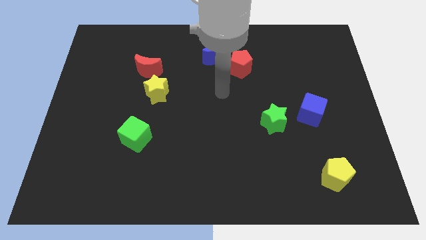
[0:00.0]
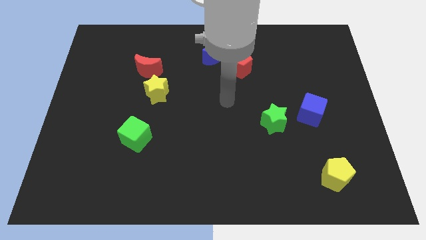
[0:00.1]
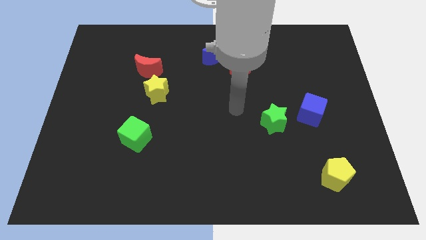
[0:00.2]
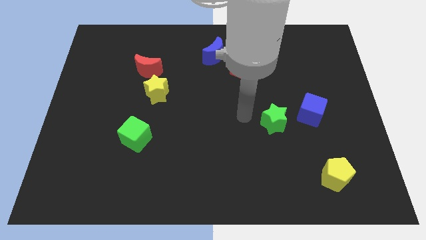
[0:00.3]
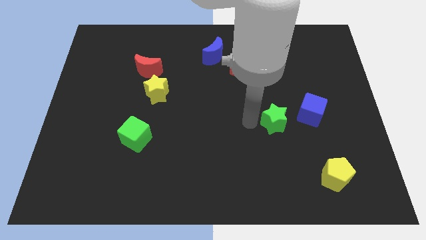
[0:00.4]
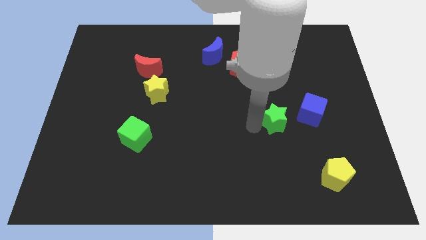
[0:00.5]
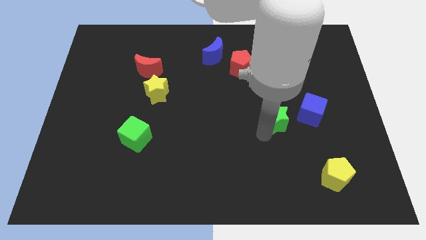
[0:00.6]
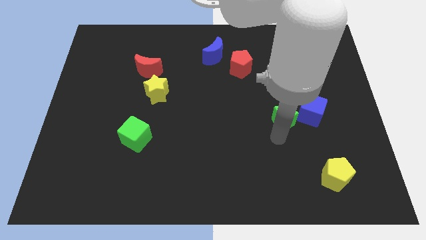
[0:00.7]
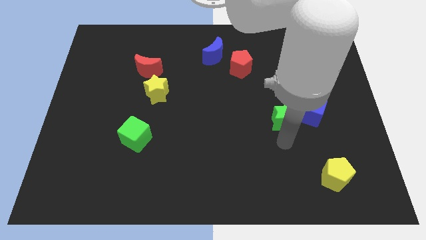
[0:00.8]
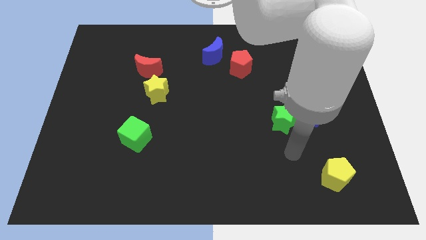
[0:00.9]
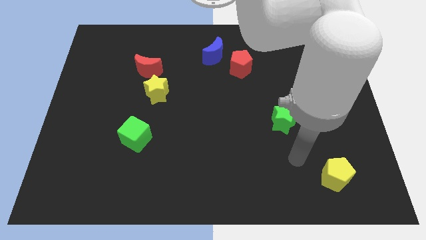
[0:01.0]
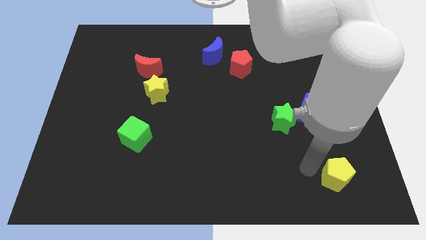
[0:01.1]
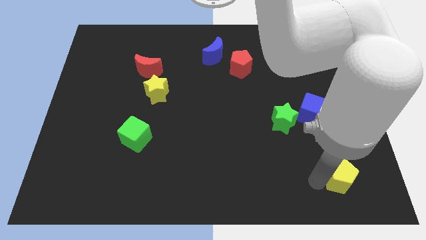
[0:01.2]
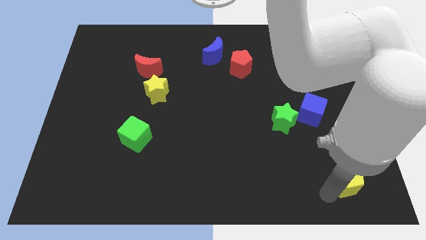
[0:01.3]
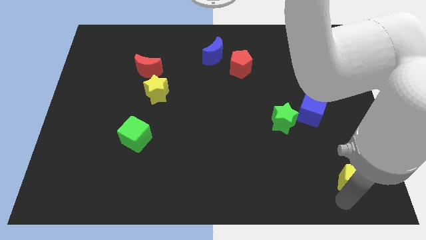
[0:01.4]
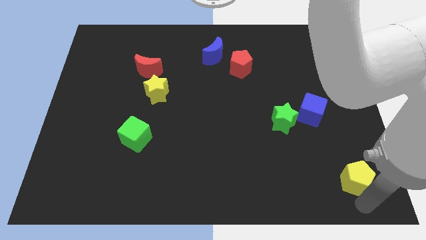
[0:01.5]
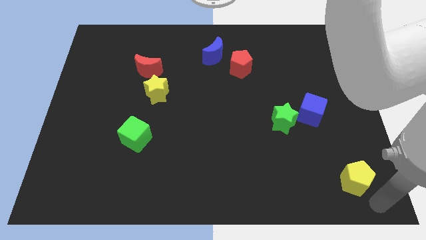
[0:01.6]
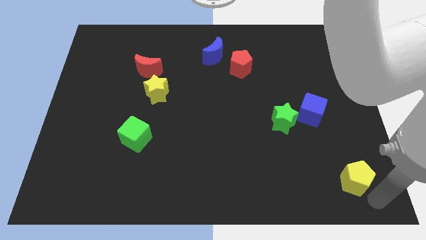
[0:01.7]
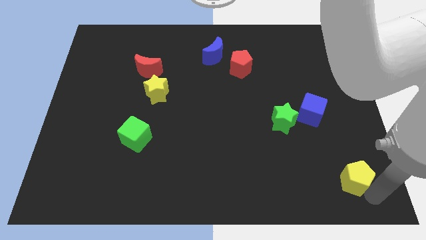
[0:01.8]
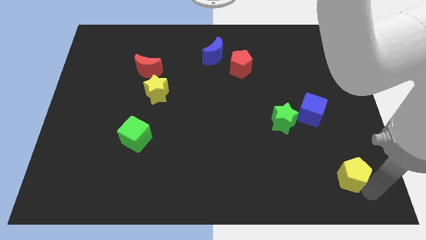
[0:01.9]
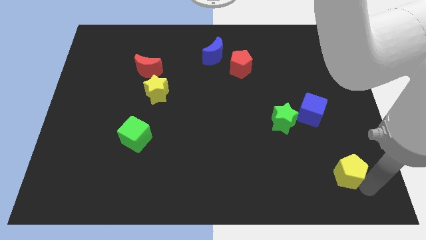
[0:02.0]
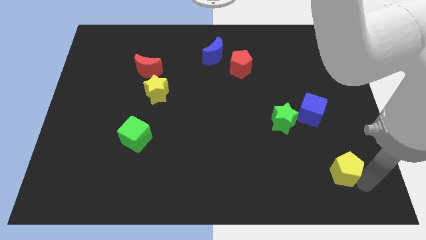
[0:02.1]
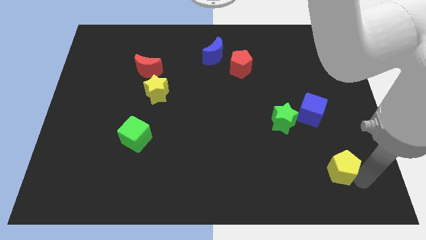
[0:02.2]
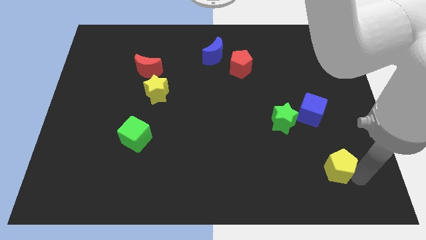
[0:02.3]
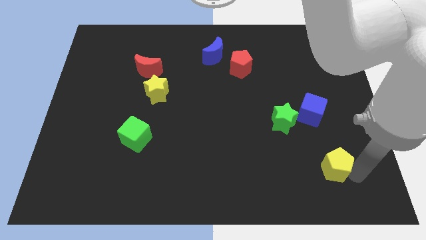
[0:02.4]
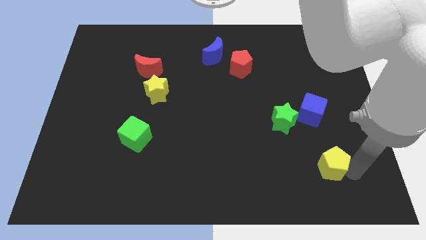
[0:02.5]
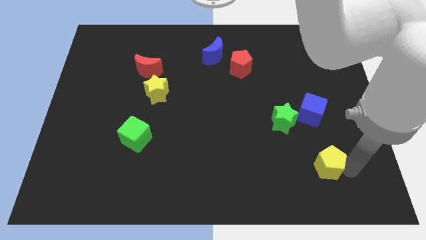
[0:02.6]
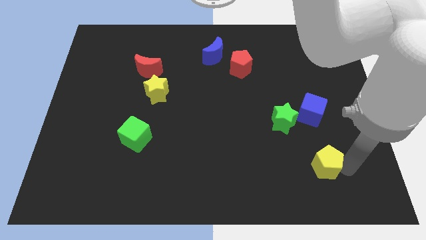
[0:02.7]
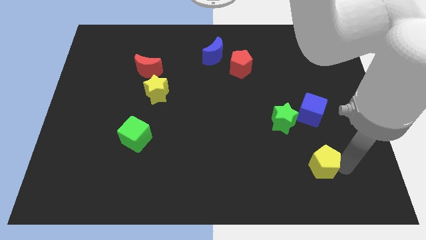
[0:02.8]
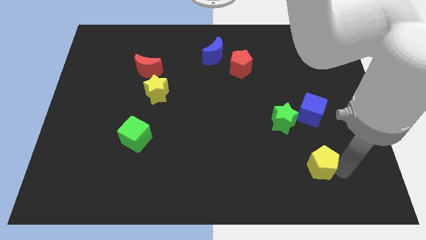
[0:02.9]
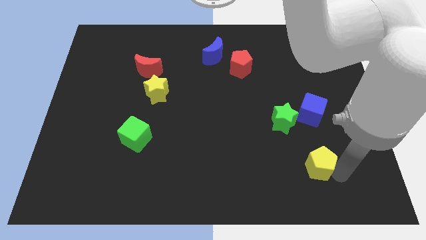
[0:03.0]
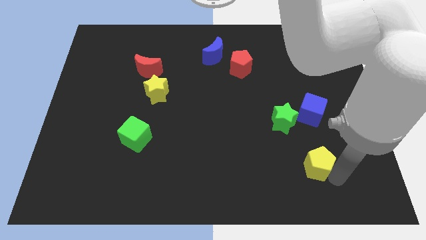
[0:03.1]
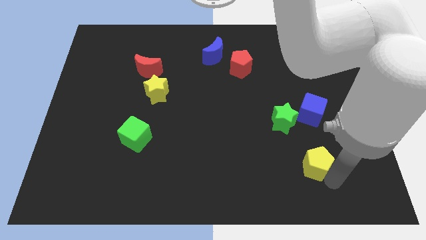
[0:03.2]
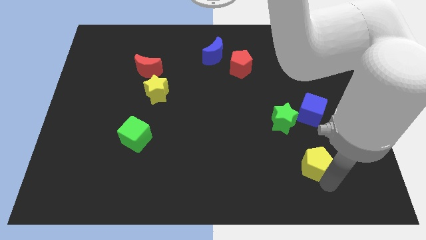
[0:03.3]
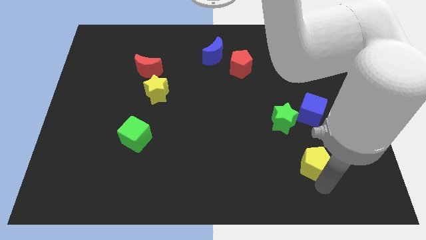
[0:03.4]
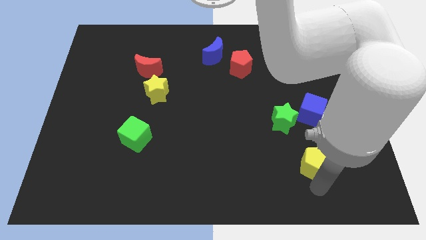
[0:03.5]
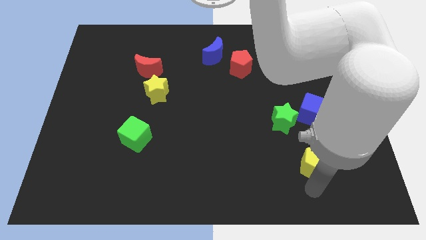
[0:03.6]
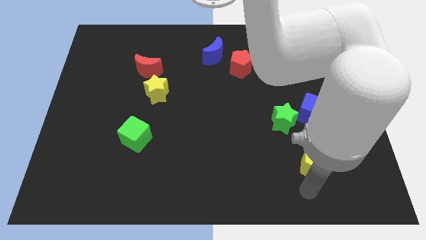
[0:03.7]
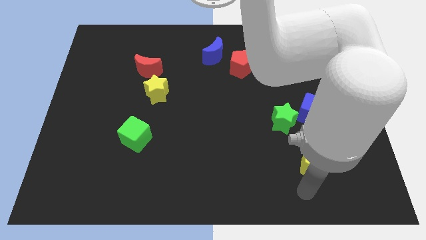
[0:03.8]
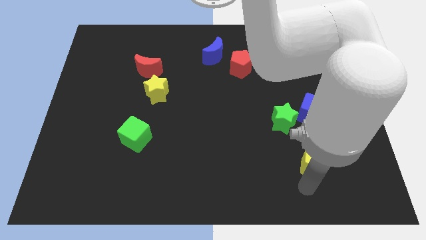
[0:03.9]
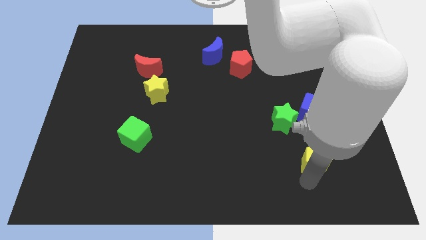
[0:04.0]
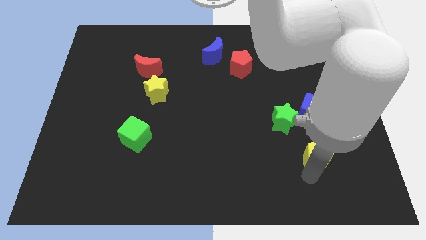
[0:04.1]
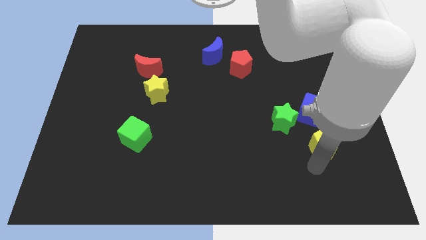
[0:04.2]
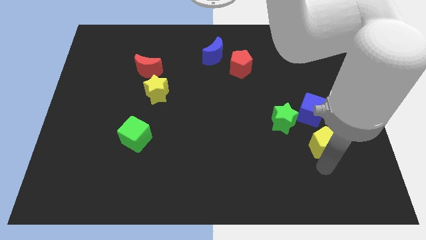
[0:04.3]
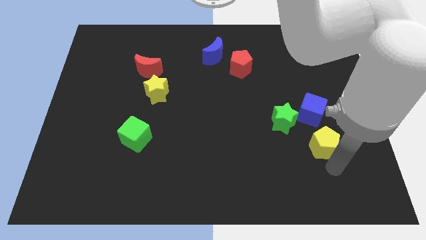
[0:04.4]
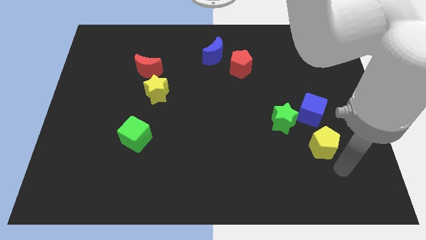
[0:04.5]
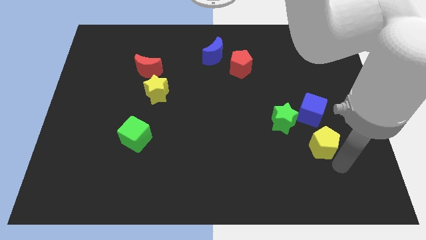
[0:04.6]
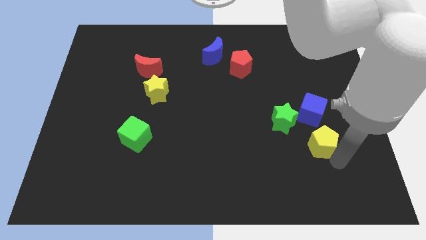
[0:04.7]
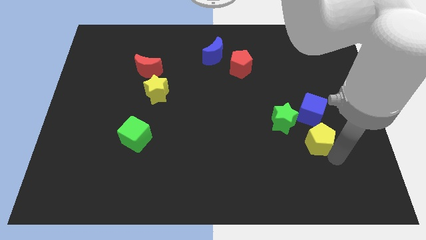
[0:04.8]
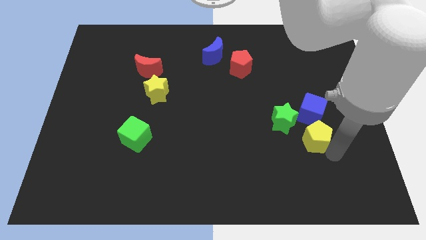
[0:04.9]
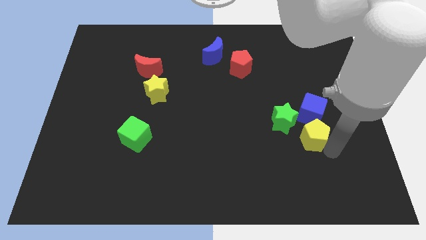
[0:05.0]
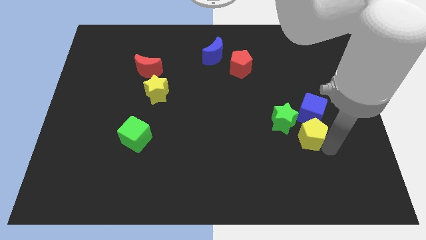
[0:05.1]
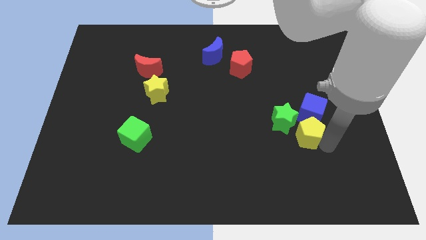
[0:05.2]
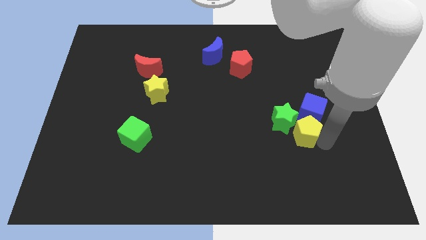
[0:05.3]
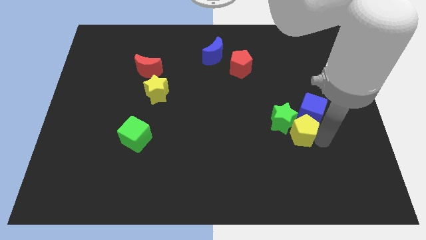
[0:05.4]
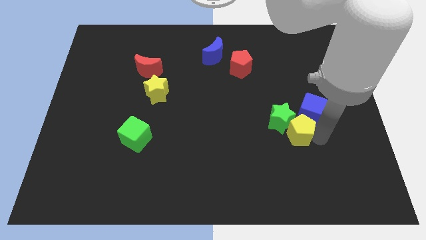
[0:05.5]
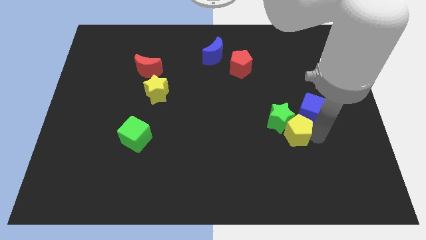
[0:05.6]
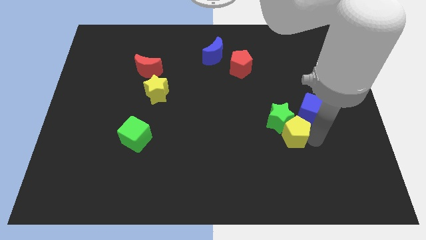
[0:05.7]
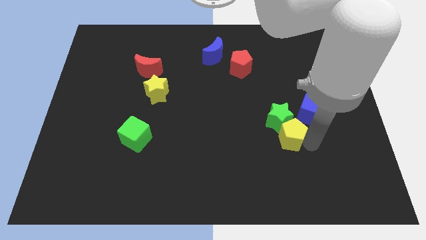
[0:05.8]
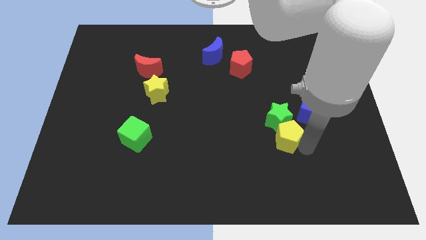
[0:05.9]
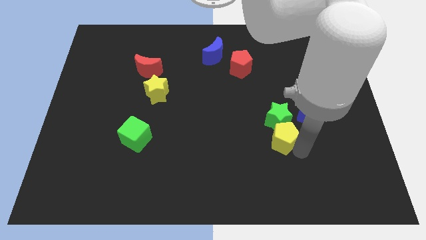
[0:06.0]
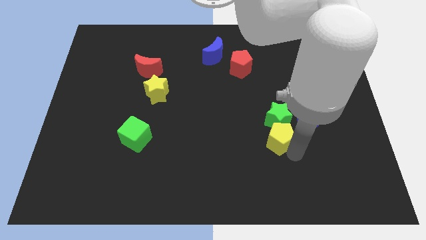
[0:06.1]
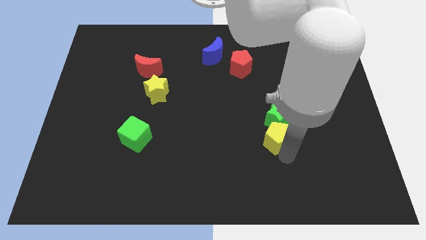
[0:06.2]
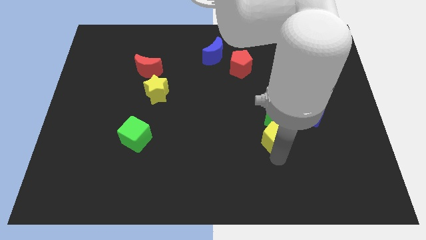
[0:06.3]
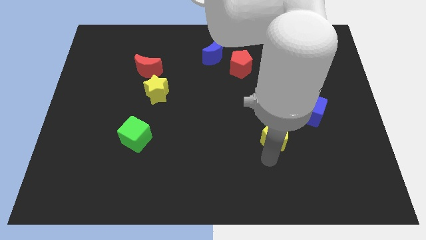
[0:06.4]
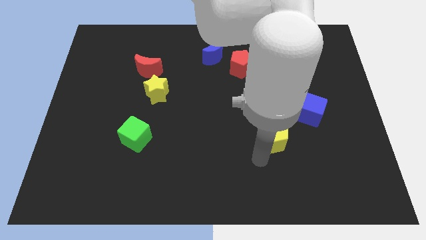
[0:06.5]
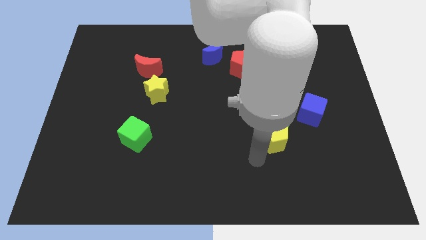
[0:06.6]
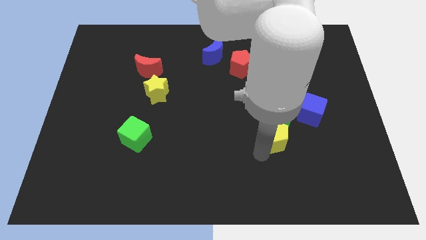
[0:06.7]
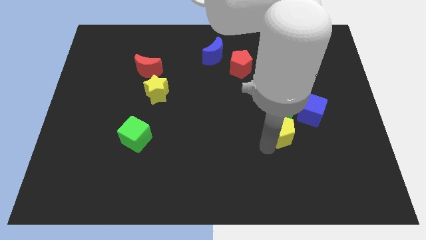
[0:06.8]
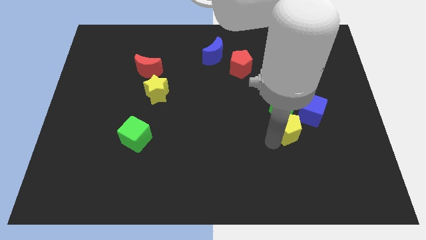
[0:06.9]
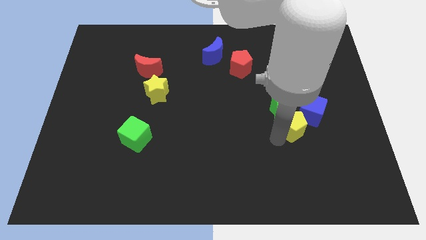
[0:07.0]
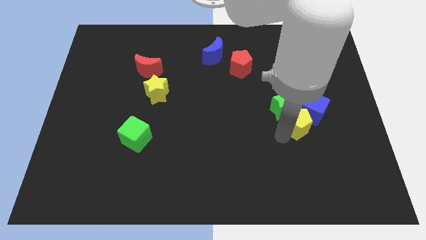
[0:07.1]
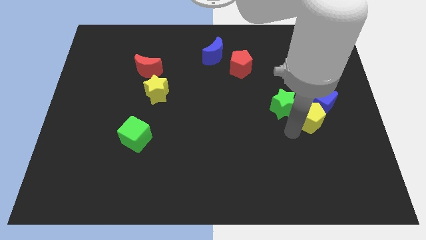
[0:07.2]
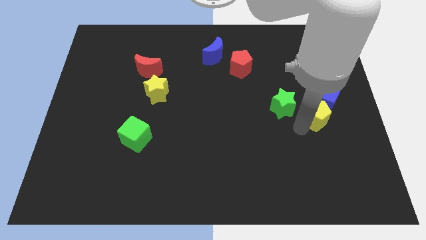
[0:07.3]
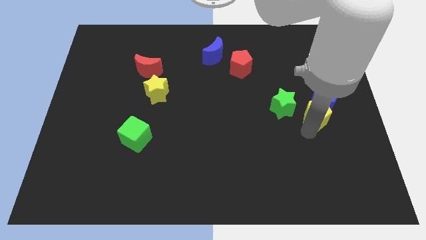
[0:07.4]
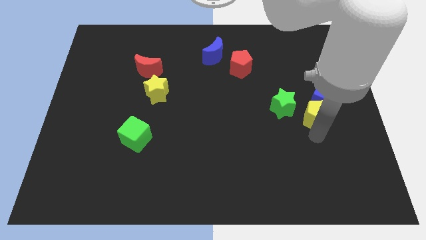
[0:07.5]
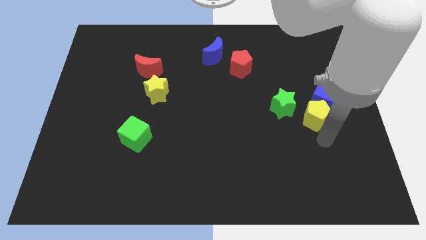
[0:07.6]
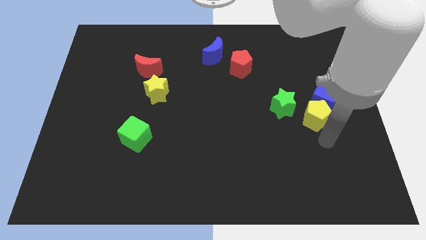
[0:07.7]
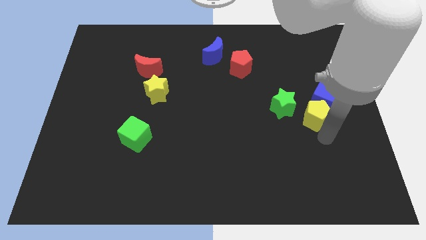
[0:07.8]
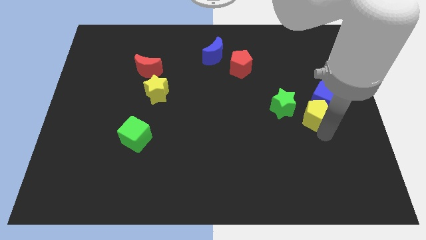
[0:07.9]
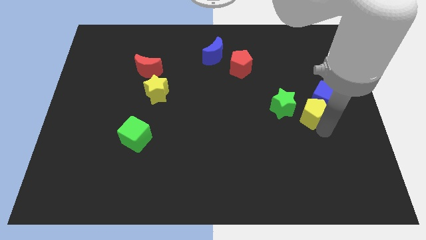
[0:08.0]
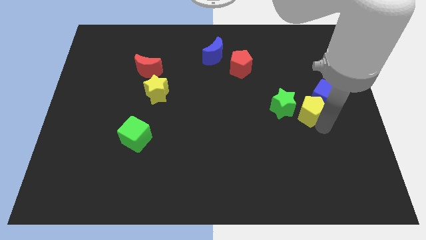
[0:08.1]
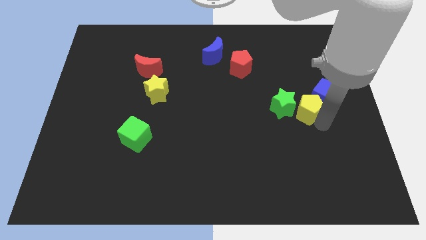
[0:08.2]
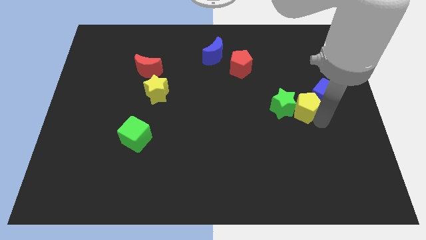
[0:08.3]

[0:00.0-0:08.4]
move the yellow pentagon to the top right of the green star
